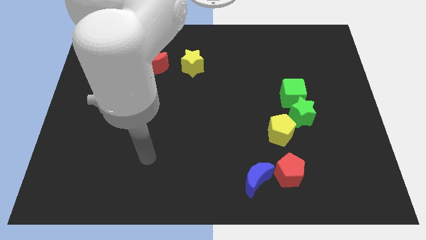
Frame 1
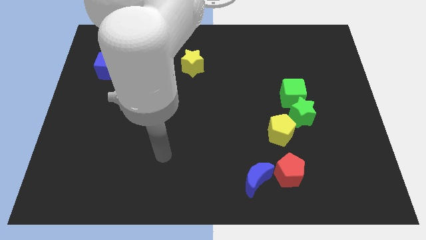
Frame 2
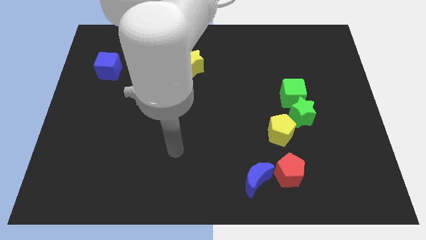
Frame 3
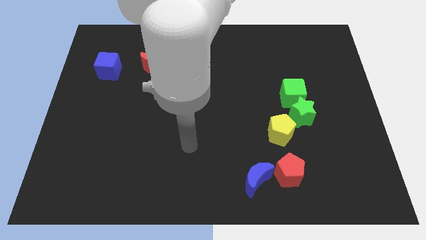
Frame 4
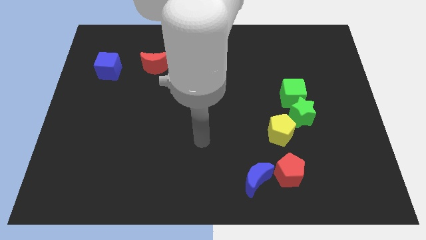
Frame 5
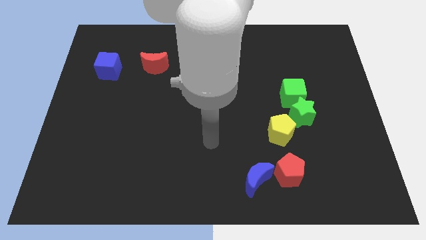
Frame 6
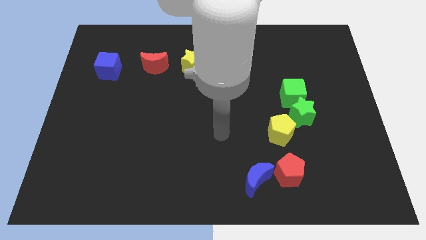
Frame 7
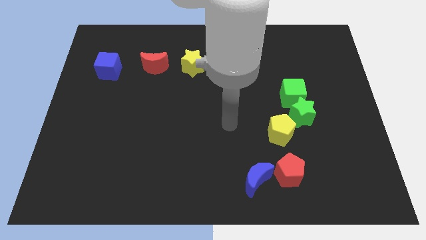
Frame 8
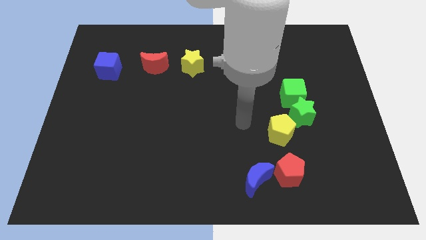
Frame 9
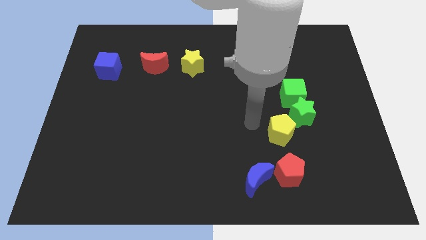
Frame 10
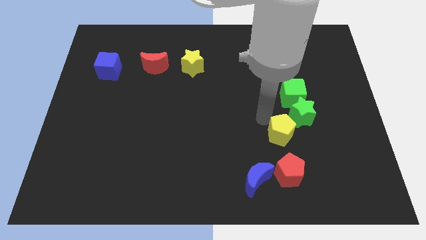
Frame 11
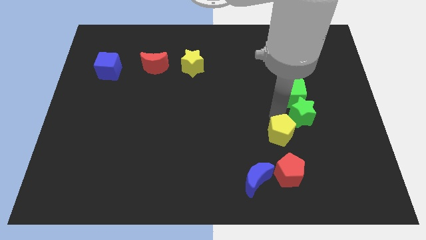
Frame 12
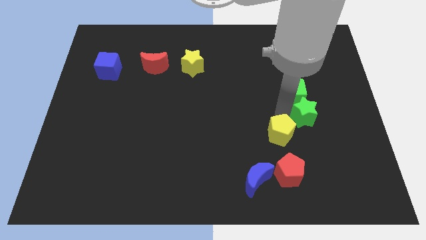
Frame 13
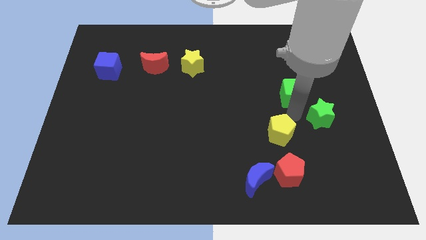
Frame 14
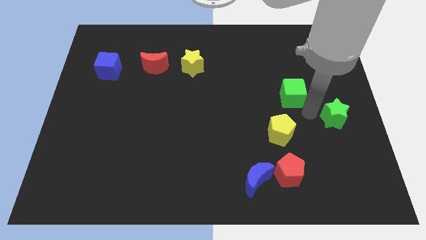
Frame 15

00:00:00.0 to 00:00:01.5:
move the green cube away from the green star

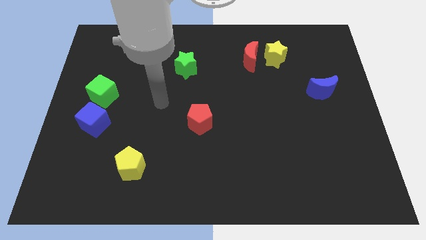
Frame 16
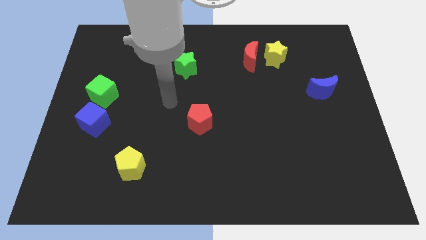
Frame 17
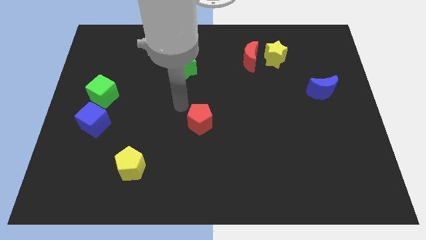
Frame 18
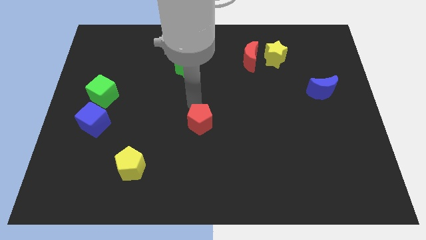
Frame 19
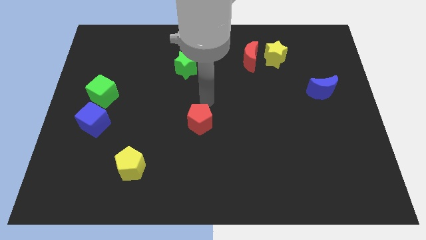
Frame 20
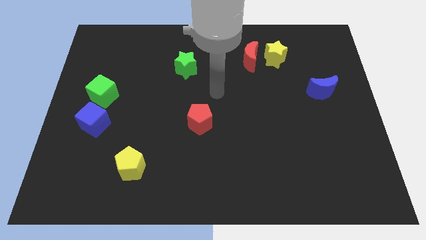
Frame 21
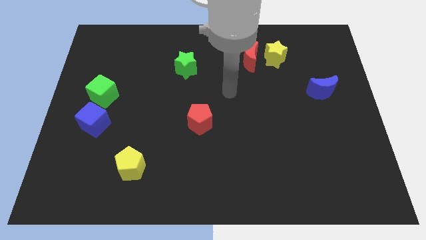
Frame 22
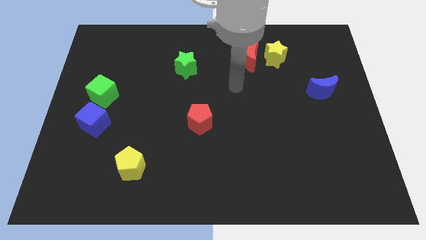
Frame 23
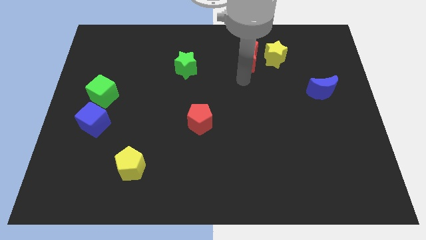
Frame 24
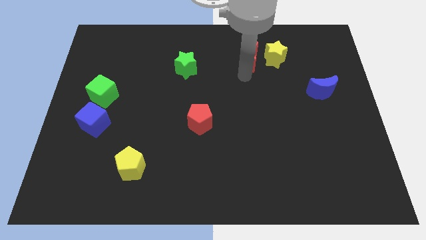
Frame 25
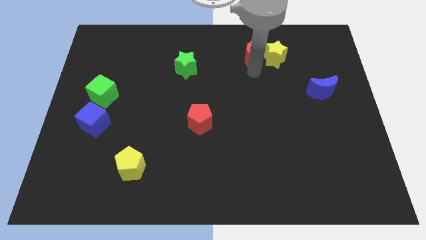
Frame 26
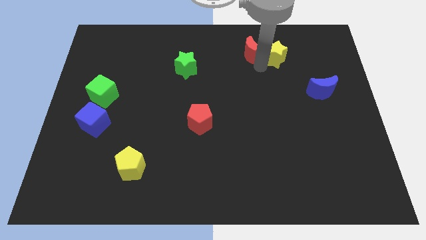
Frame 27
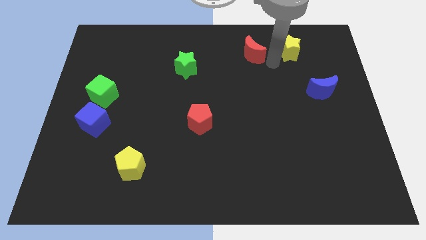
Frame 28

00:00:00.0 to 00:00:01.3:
pull the red moon apart from the yellow star

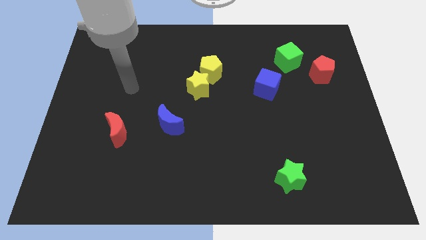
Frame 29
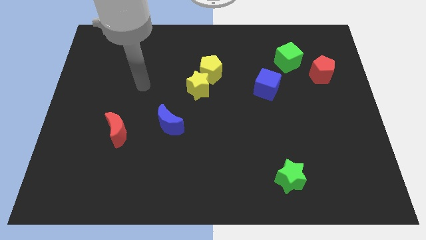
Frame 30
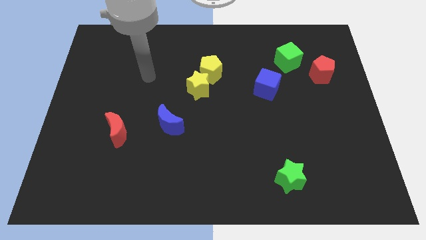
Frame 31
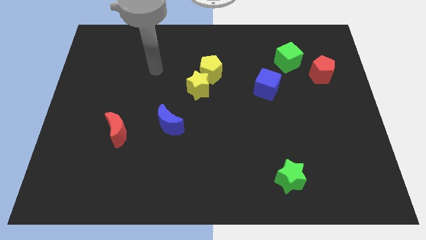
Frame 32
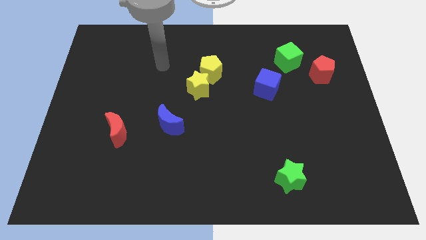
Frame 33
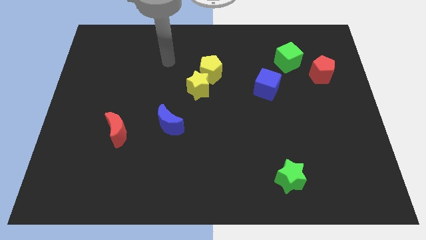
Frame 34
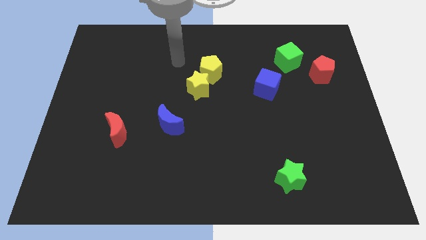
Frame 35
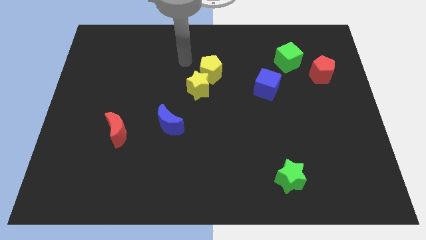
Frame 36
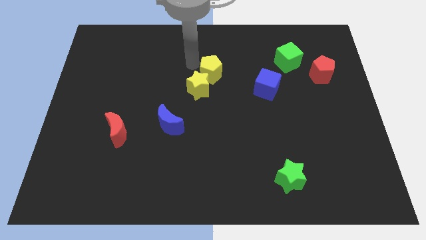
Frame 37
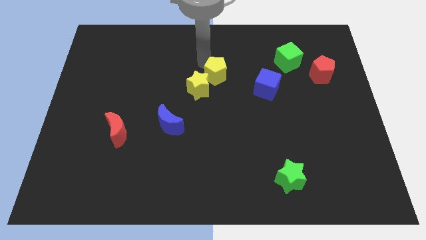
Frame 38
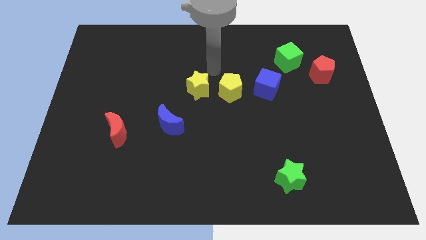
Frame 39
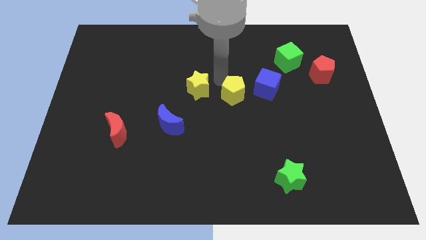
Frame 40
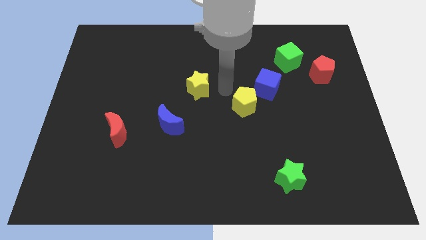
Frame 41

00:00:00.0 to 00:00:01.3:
separate the yellow star from the yellow pentagon

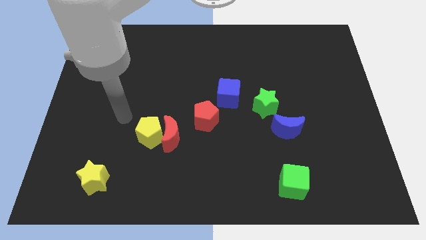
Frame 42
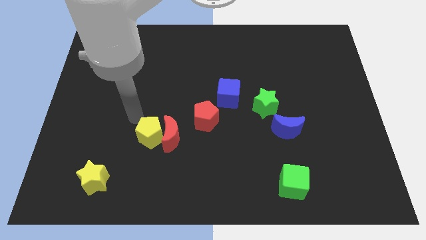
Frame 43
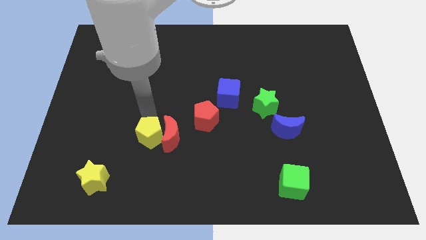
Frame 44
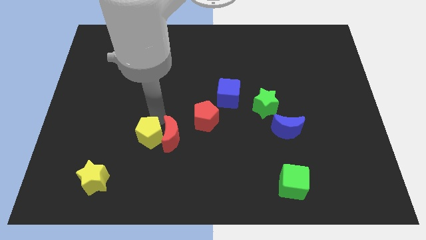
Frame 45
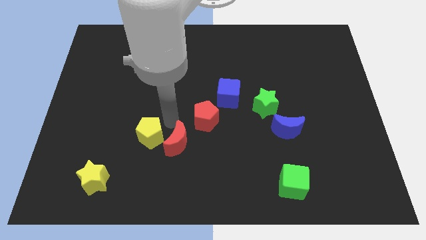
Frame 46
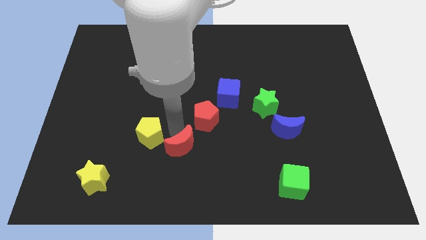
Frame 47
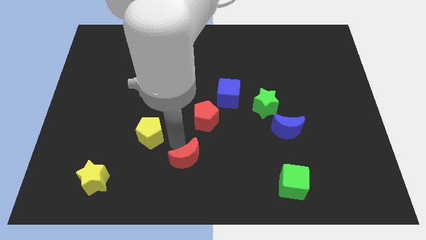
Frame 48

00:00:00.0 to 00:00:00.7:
pull the yellow pentagon apart from the red moon

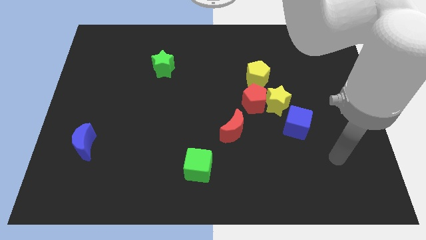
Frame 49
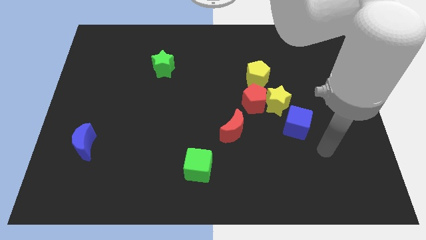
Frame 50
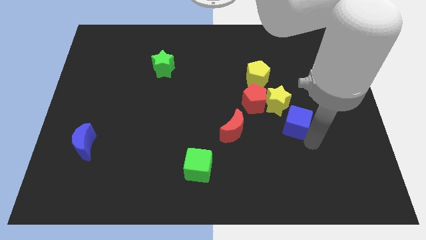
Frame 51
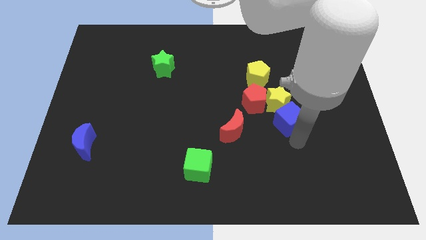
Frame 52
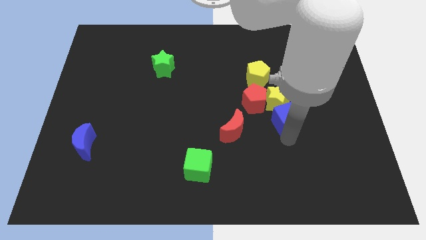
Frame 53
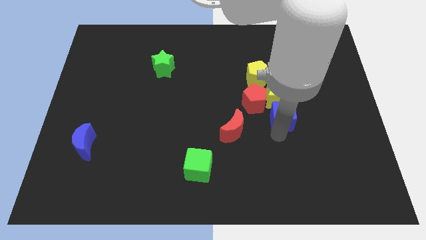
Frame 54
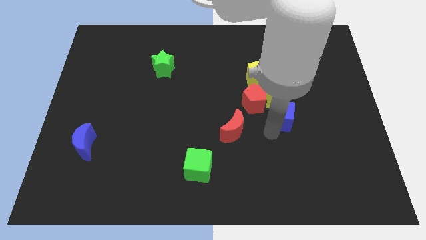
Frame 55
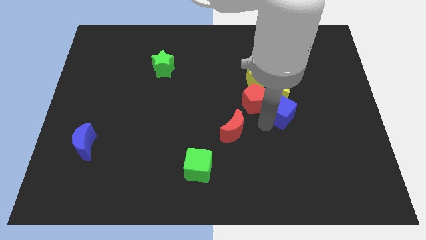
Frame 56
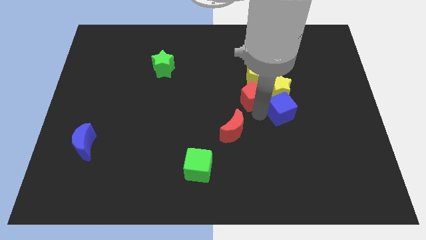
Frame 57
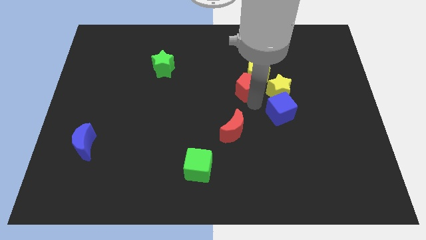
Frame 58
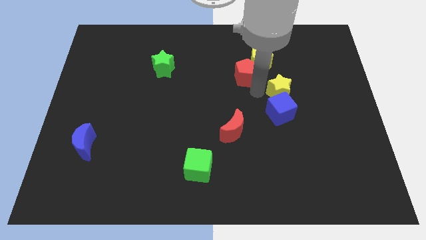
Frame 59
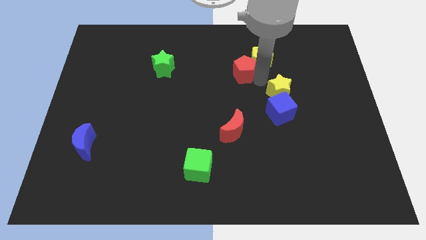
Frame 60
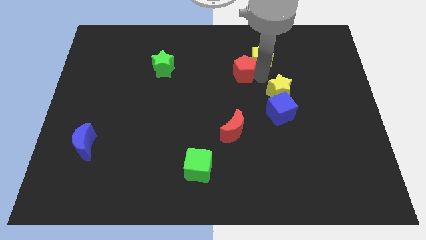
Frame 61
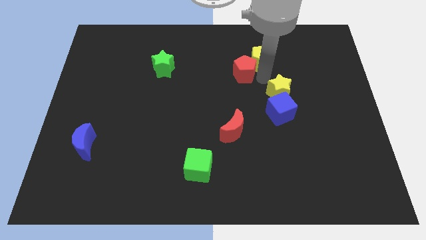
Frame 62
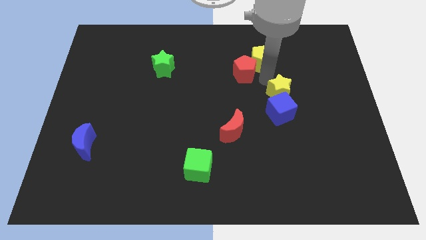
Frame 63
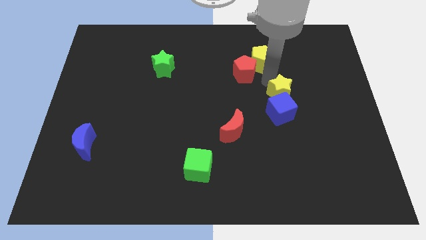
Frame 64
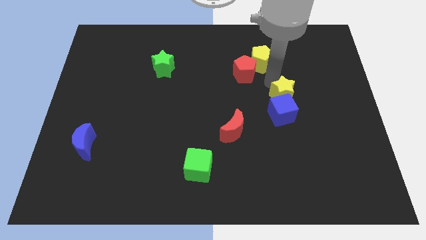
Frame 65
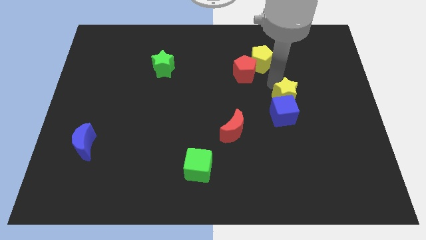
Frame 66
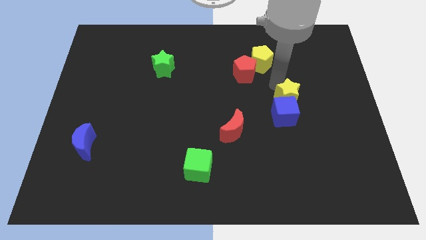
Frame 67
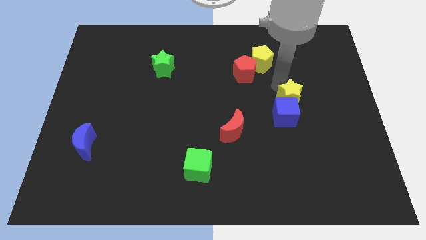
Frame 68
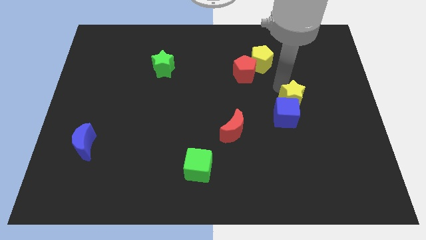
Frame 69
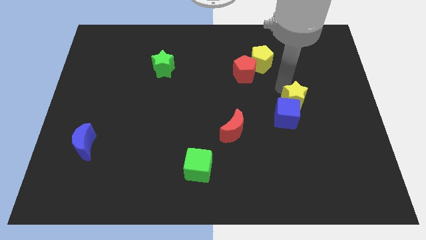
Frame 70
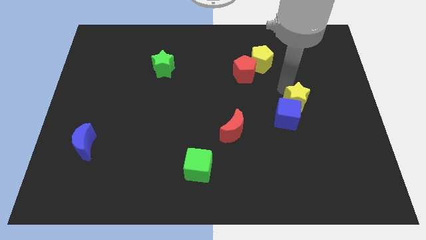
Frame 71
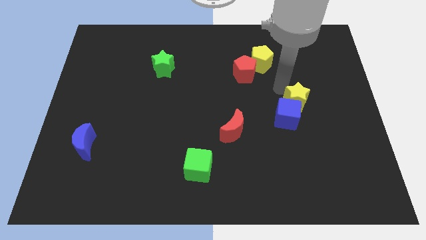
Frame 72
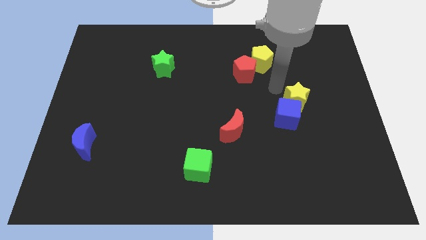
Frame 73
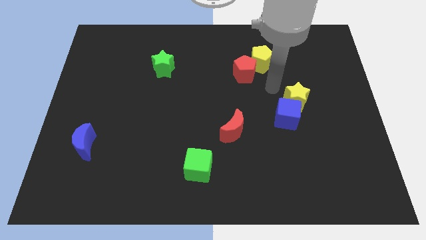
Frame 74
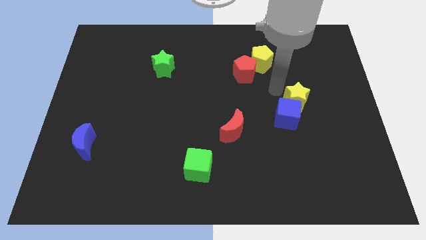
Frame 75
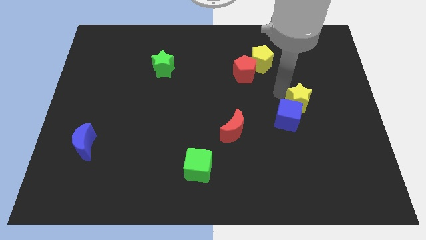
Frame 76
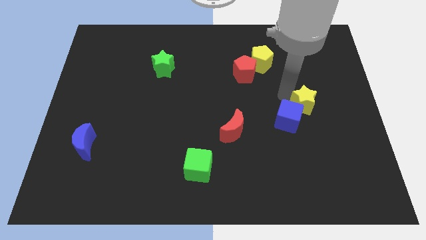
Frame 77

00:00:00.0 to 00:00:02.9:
separate the yellow star from the clump

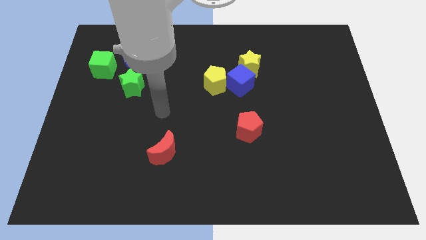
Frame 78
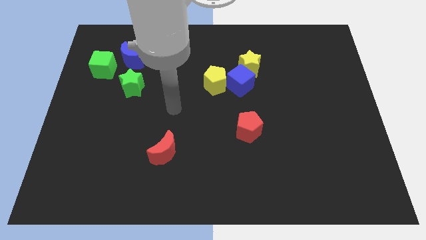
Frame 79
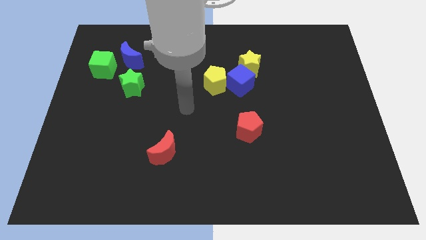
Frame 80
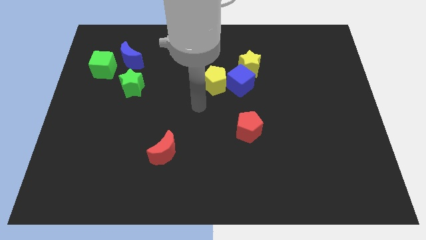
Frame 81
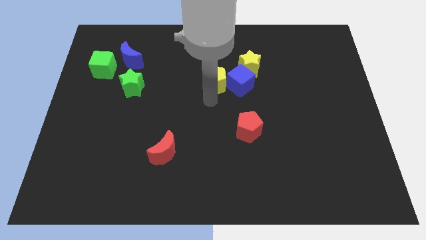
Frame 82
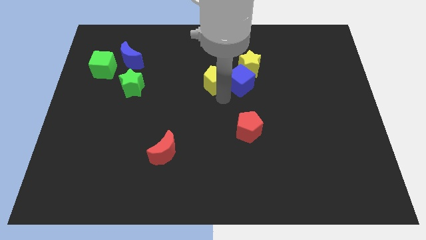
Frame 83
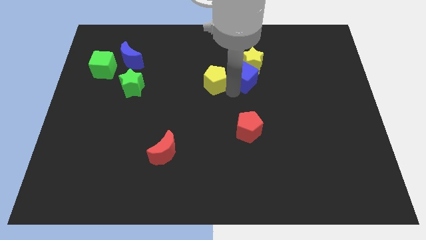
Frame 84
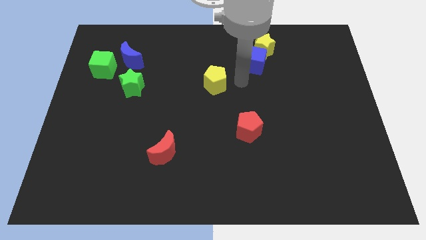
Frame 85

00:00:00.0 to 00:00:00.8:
move the yellow pentagon away from the blue cube

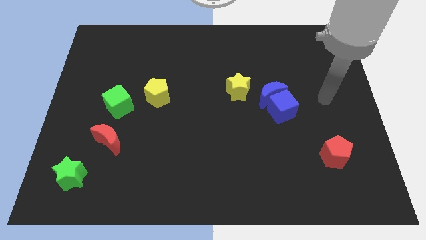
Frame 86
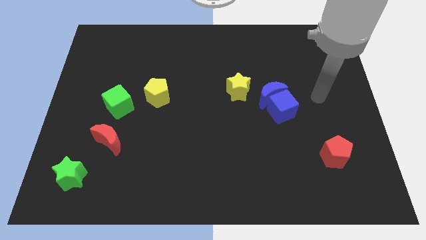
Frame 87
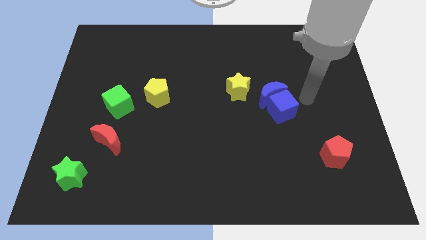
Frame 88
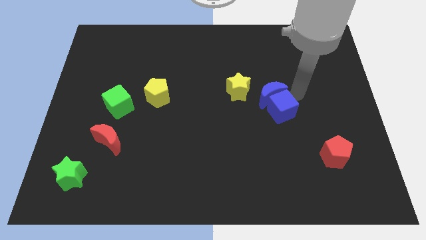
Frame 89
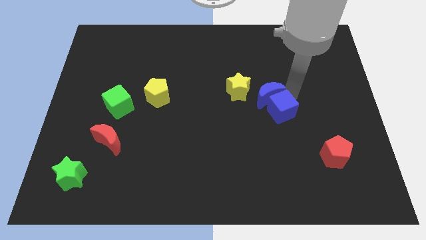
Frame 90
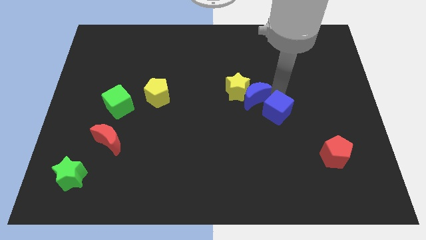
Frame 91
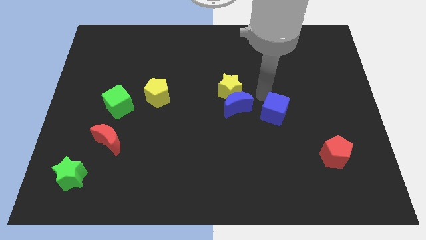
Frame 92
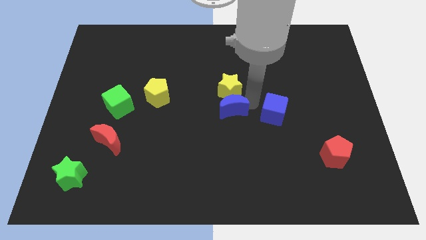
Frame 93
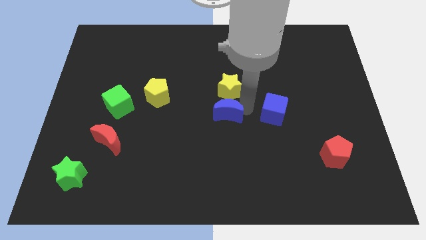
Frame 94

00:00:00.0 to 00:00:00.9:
separate the blue cube from the blue moon
